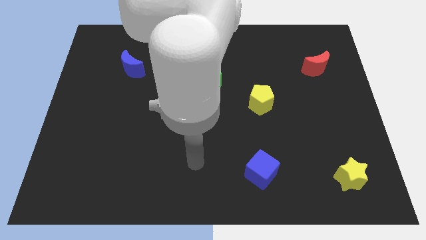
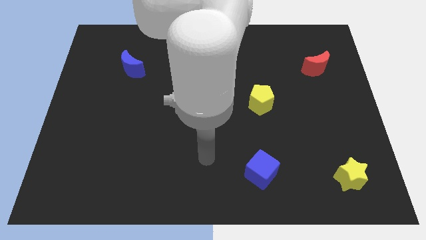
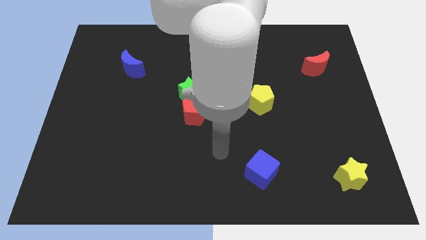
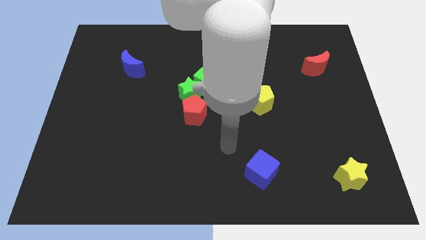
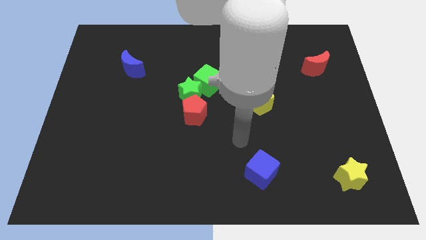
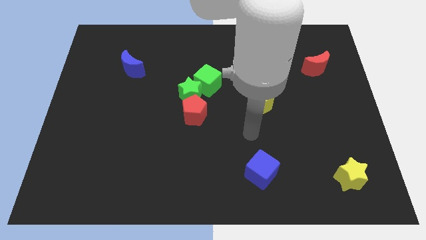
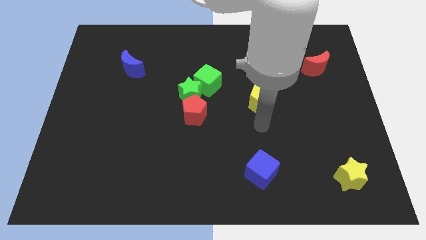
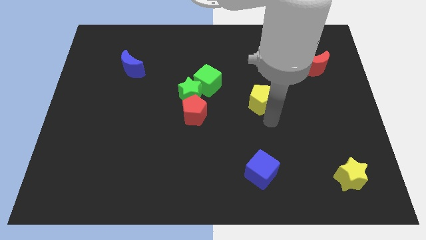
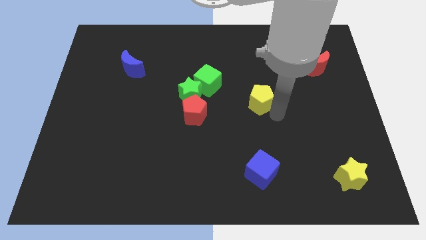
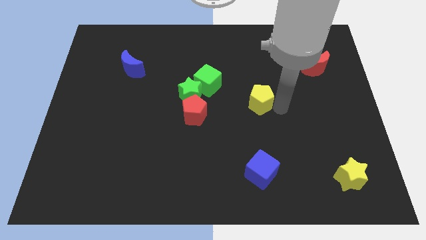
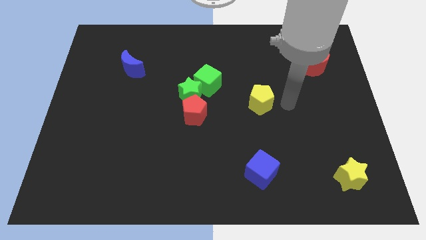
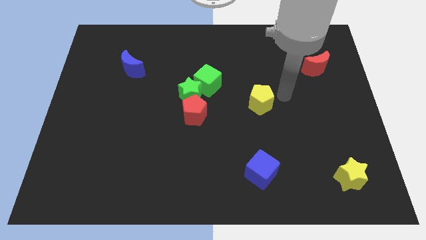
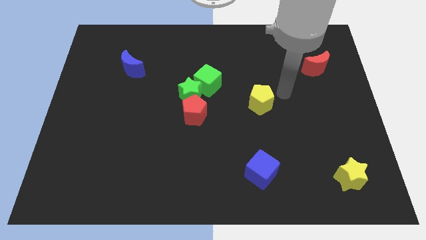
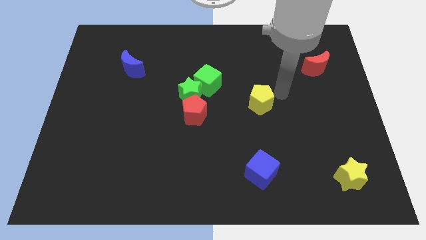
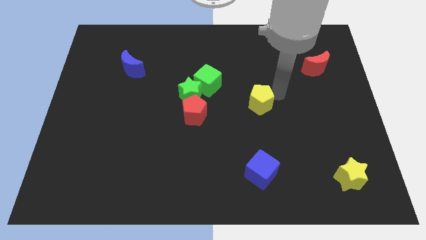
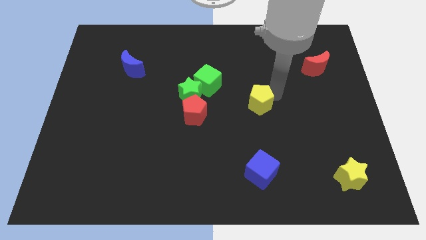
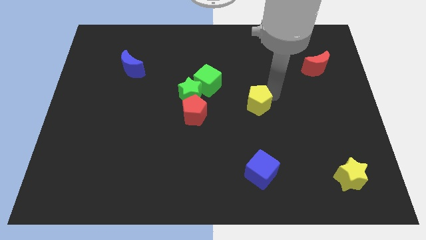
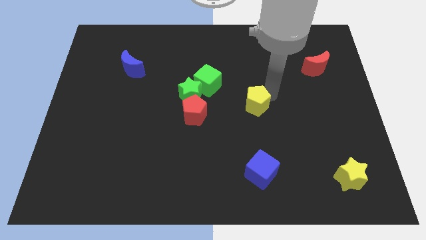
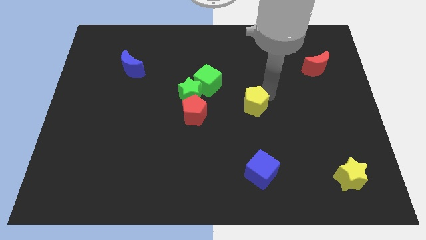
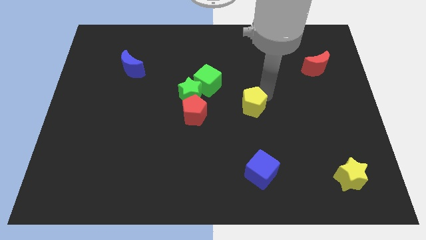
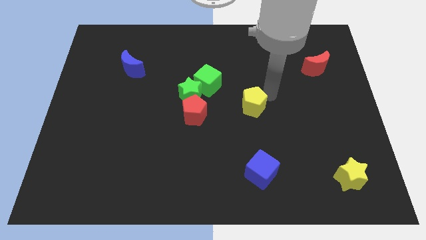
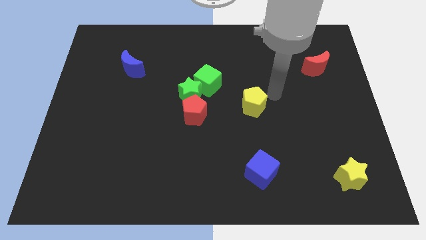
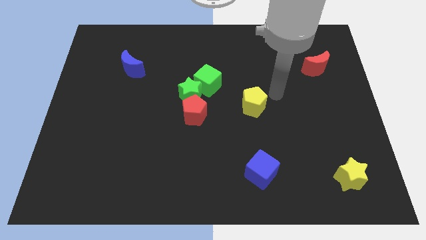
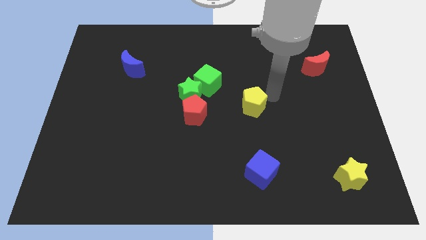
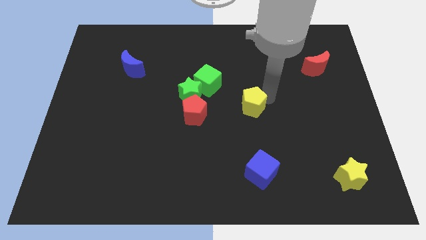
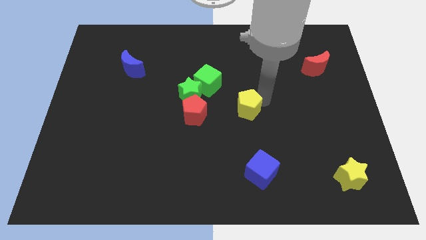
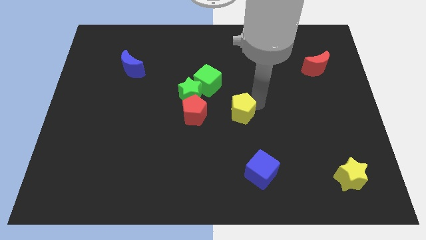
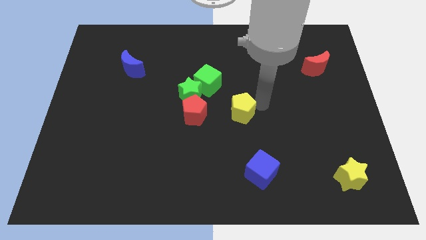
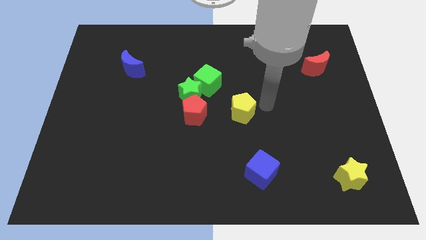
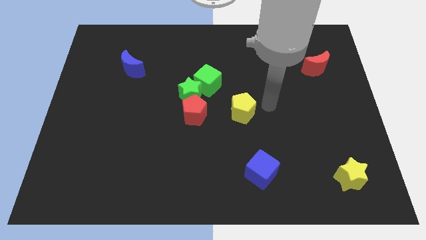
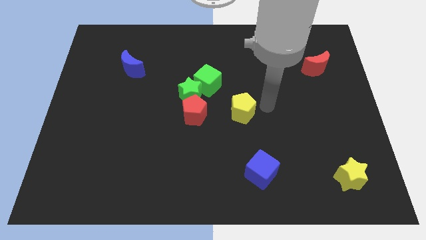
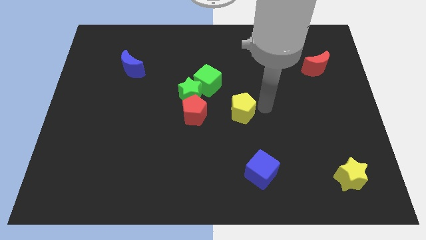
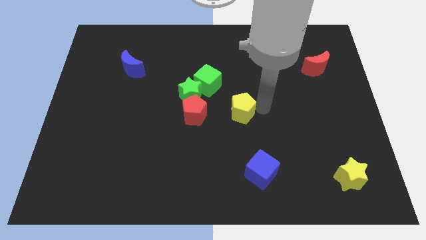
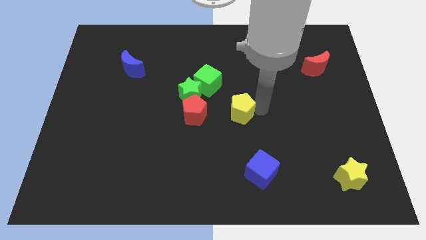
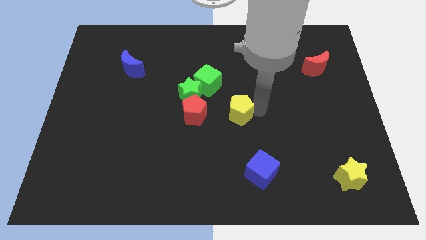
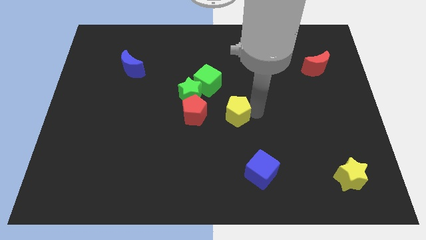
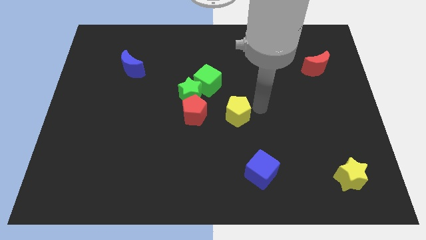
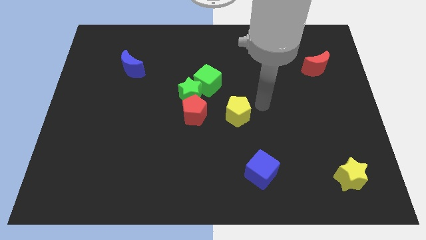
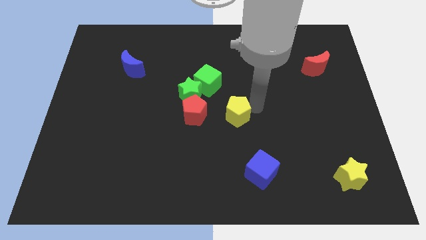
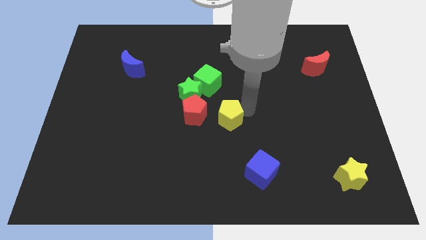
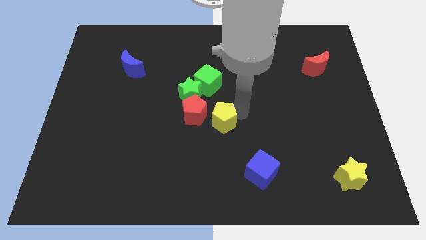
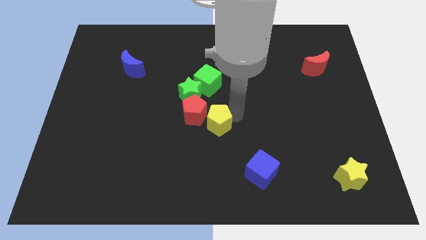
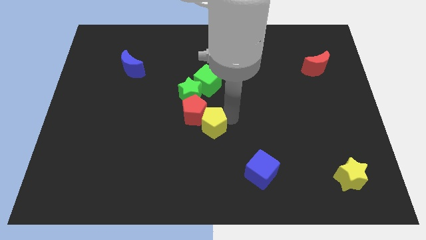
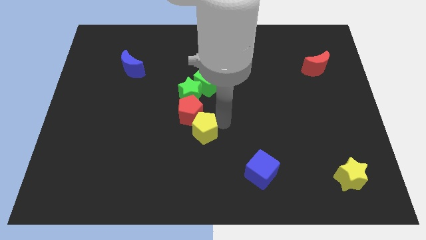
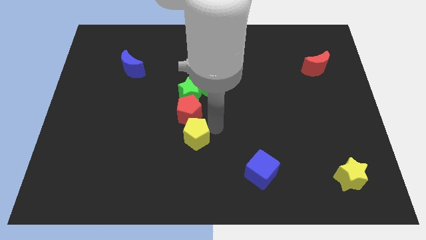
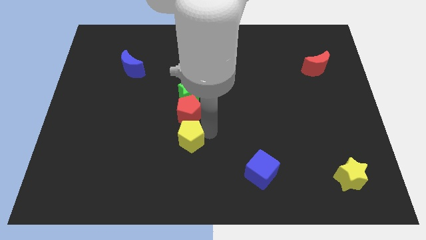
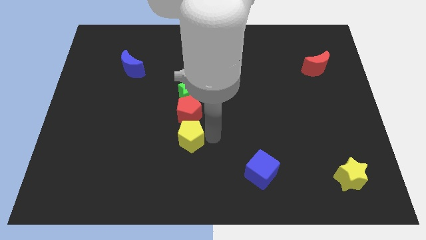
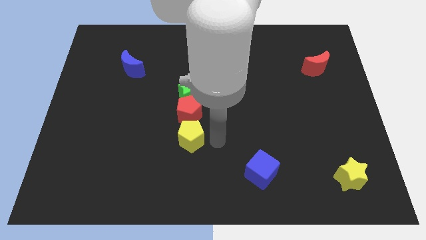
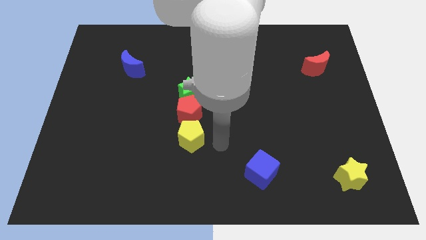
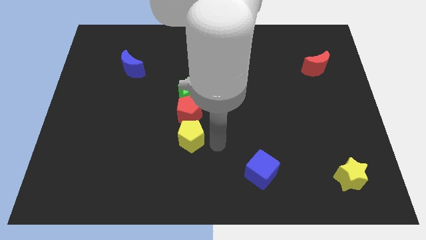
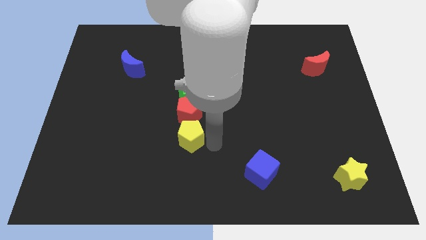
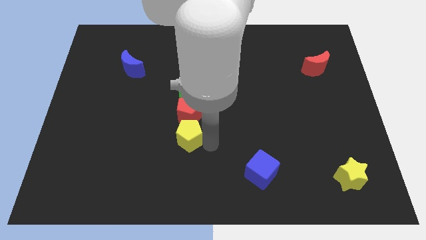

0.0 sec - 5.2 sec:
move the yellow pentagon to the bottom left of the red pentagon

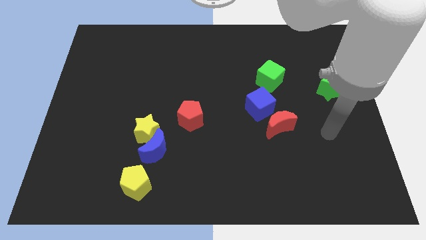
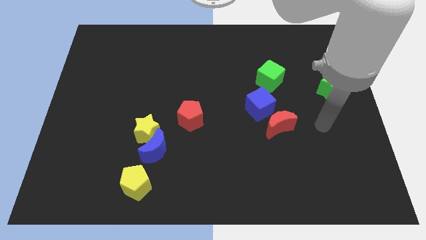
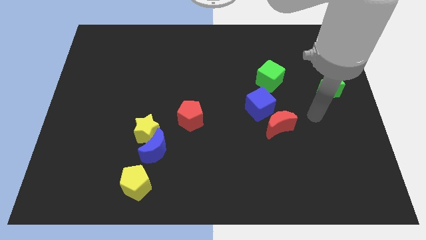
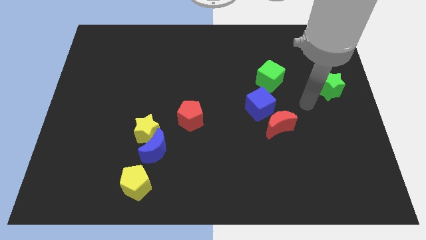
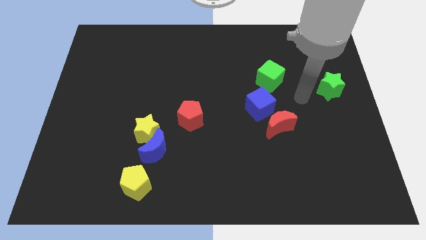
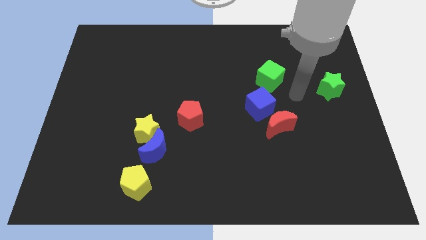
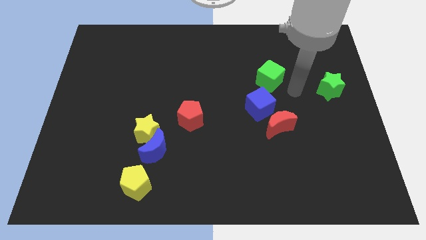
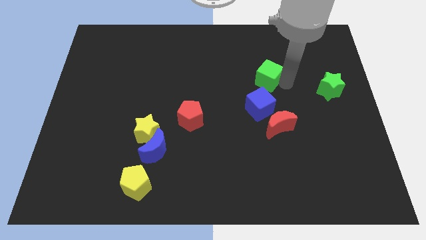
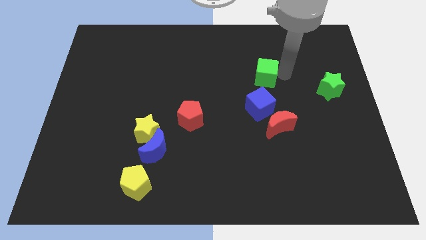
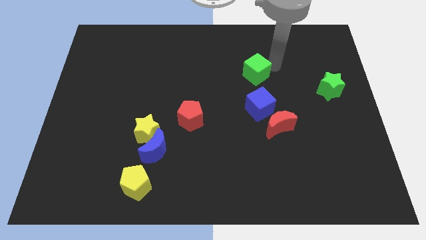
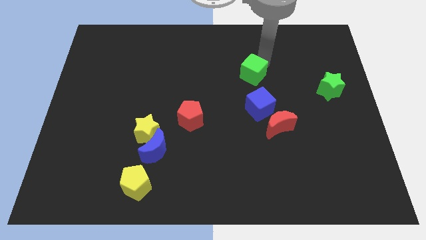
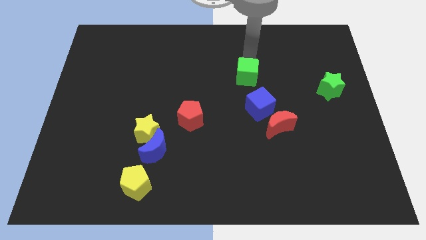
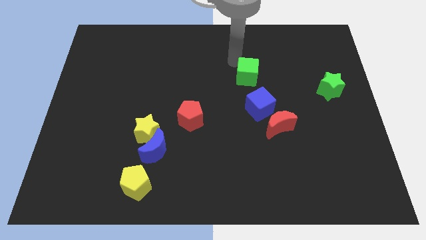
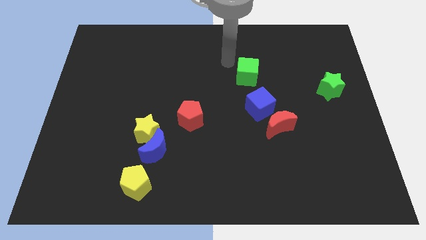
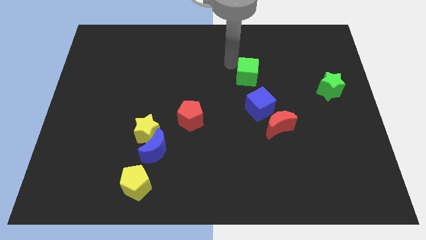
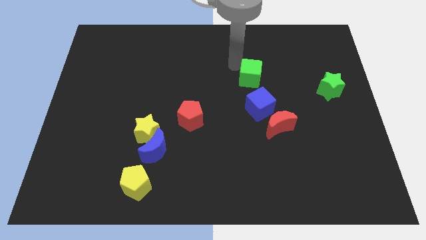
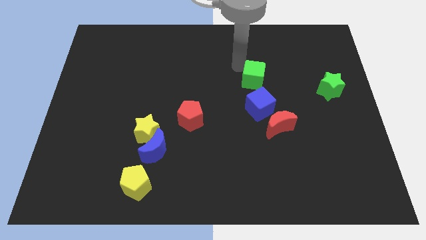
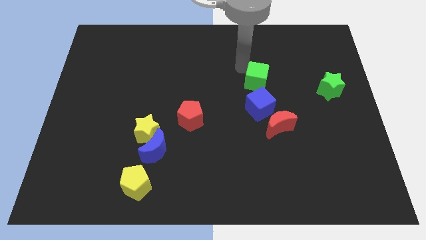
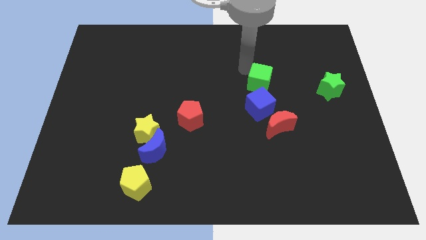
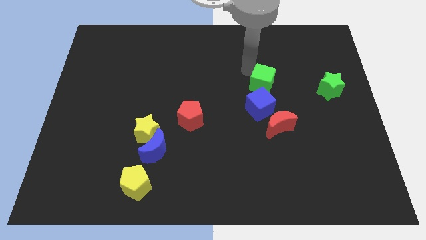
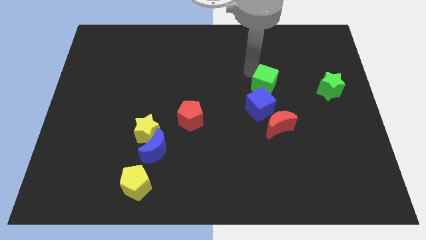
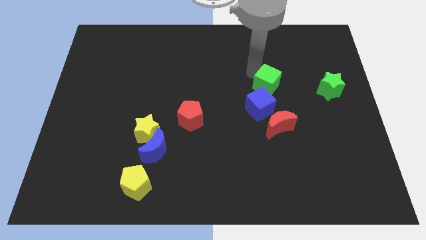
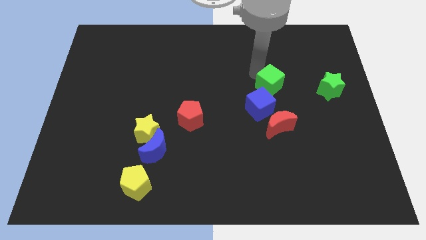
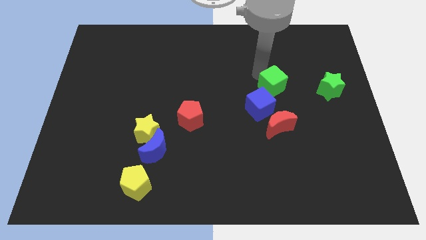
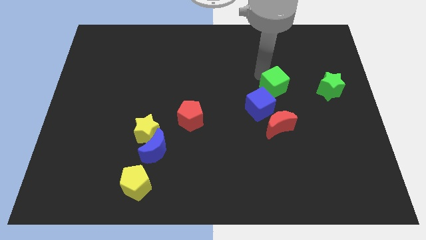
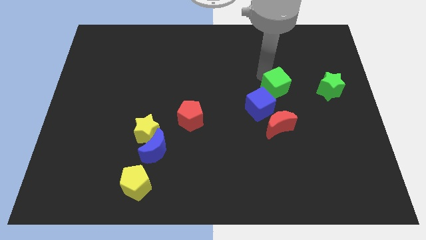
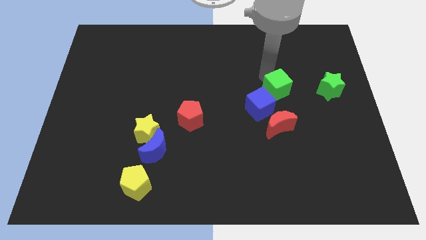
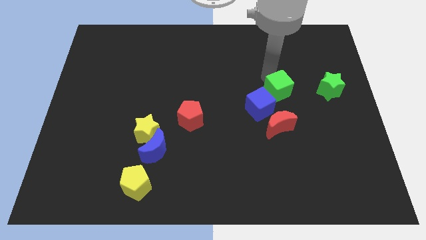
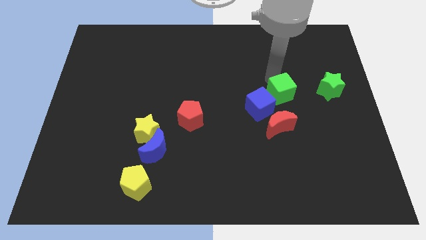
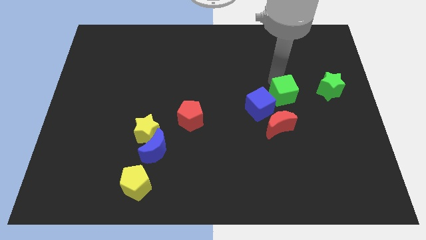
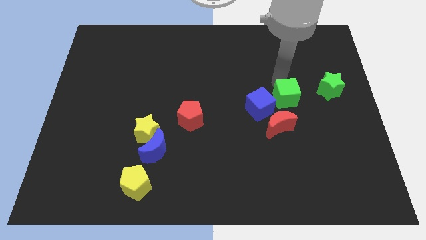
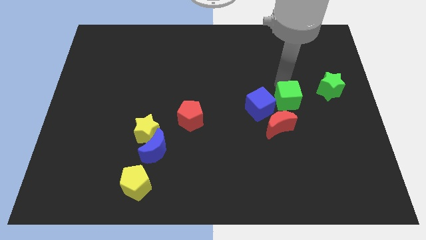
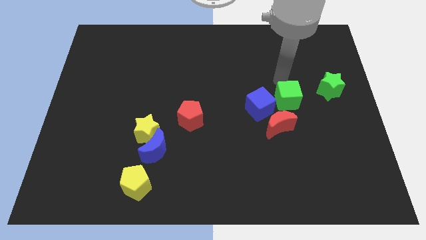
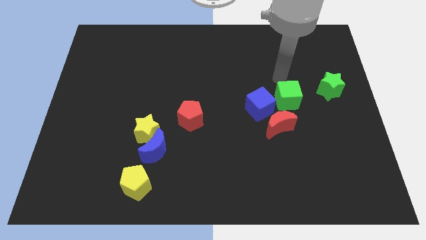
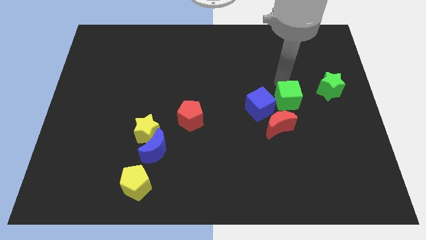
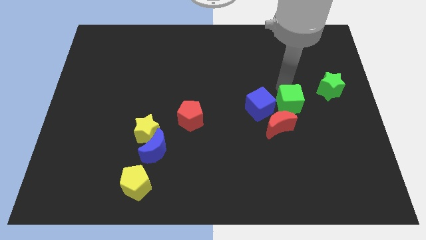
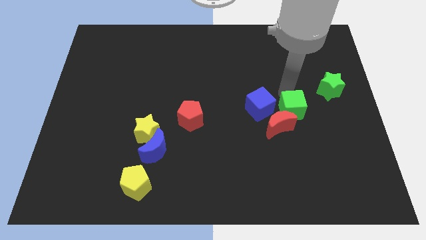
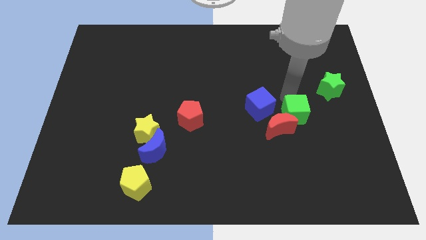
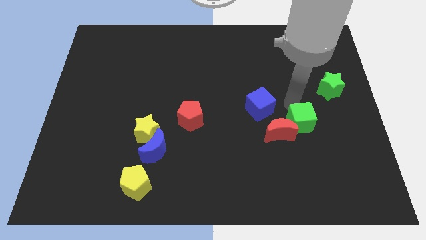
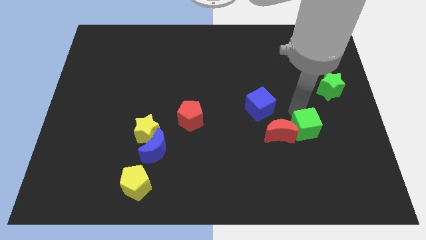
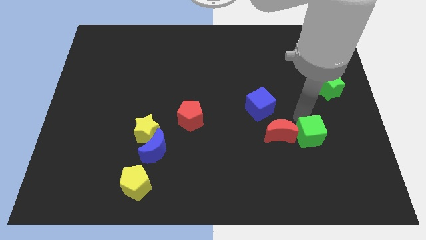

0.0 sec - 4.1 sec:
put the green cube to the bottom right side of the red moon
